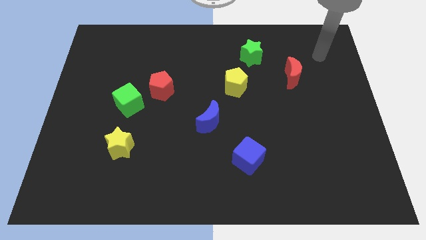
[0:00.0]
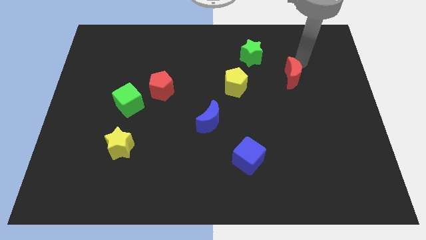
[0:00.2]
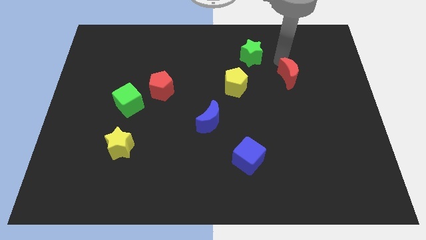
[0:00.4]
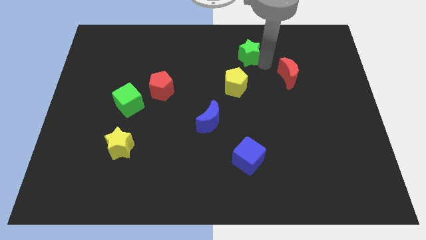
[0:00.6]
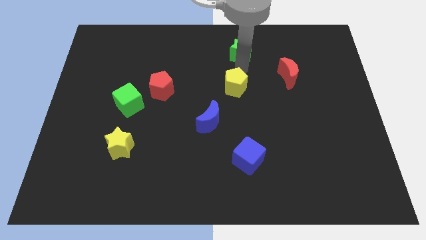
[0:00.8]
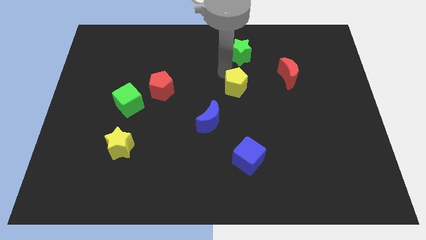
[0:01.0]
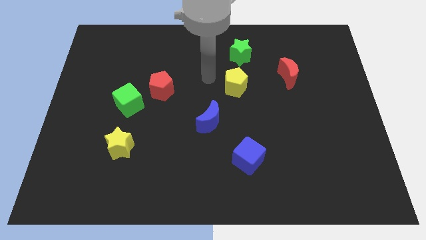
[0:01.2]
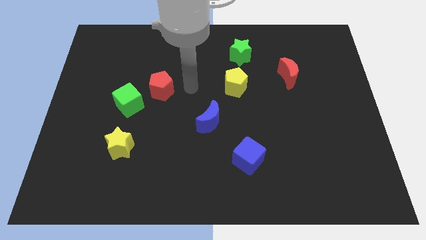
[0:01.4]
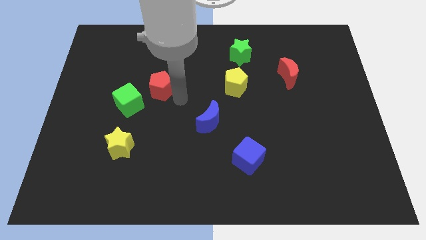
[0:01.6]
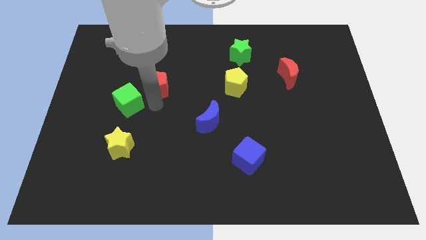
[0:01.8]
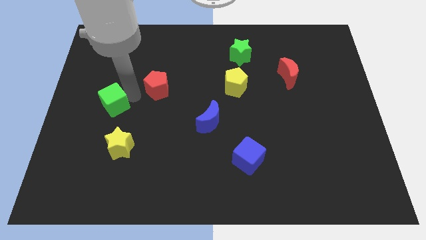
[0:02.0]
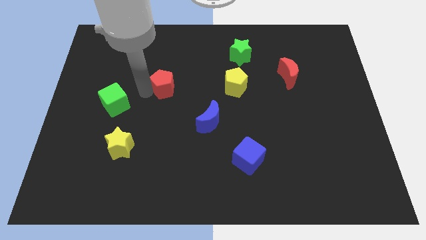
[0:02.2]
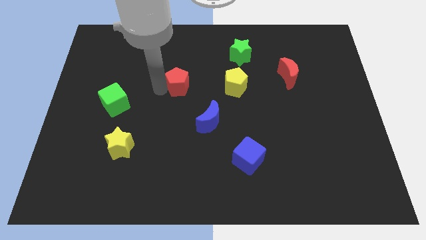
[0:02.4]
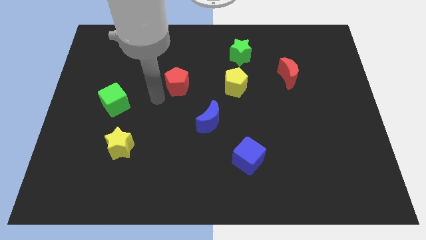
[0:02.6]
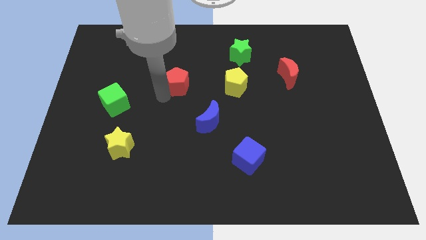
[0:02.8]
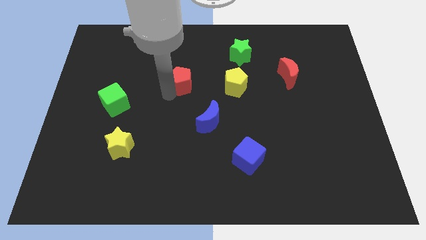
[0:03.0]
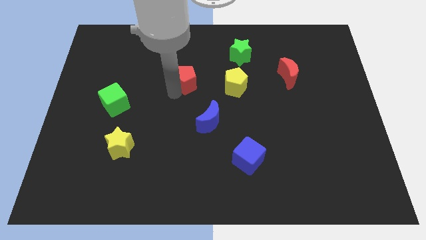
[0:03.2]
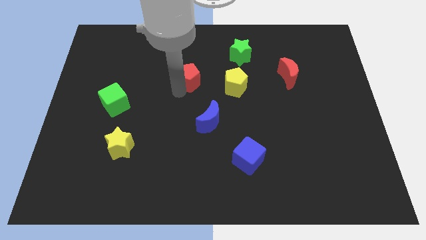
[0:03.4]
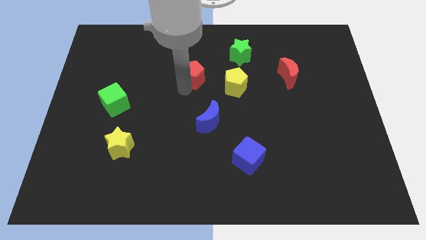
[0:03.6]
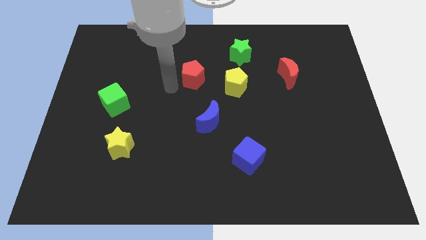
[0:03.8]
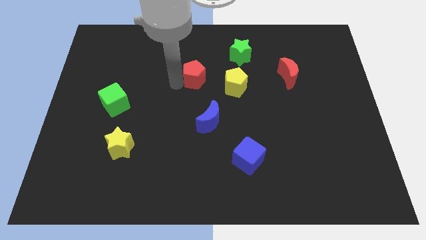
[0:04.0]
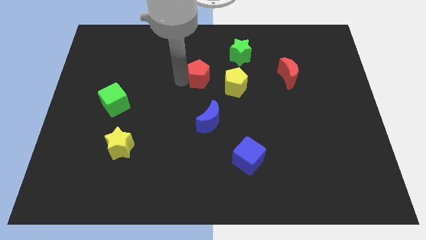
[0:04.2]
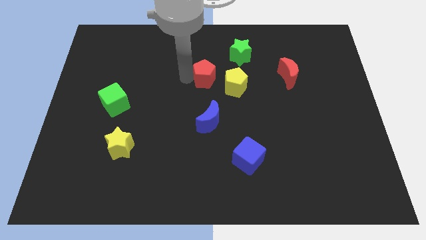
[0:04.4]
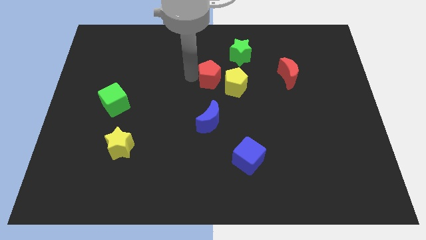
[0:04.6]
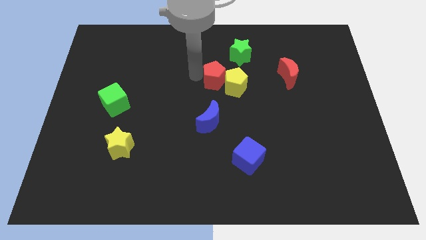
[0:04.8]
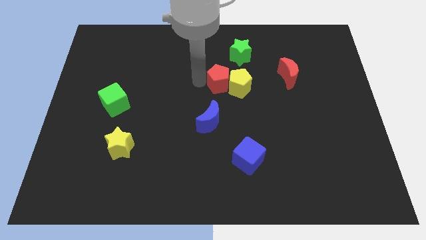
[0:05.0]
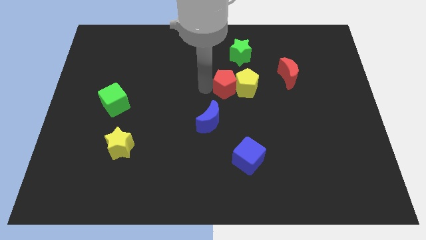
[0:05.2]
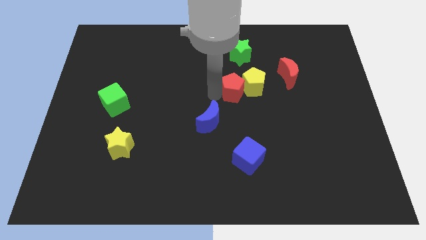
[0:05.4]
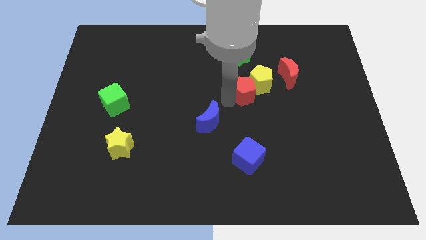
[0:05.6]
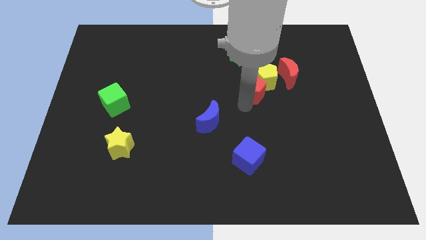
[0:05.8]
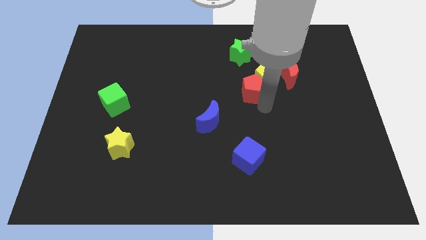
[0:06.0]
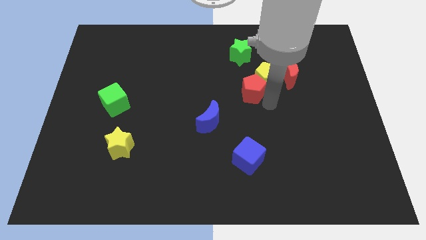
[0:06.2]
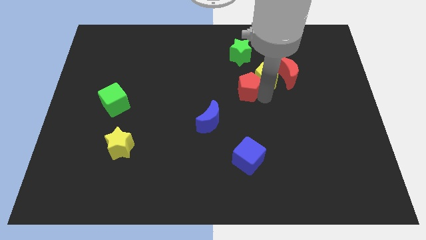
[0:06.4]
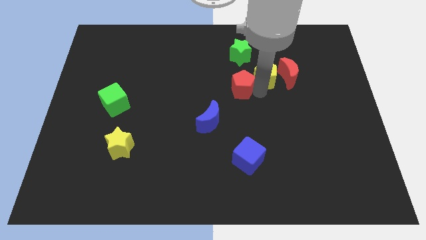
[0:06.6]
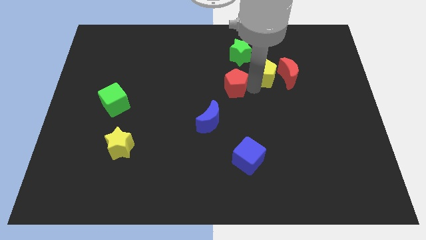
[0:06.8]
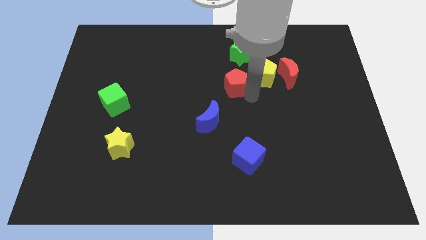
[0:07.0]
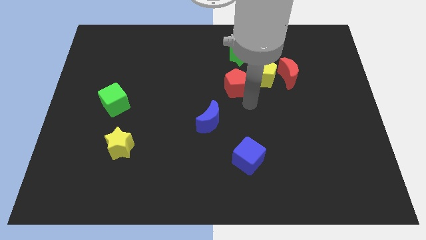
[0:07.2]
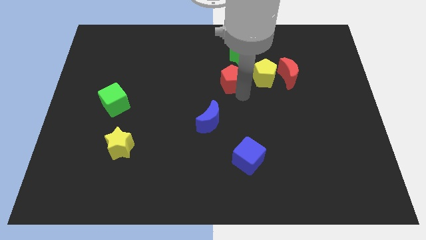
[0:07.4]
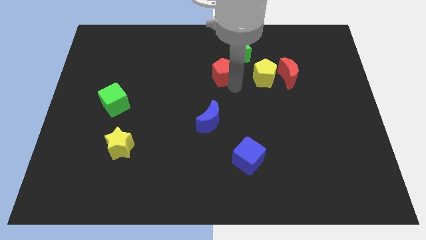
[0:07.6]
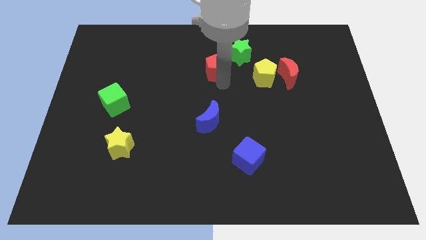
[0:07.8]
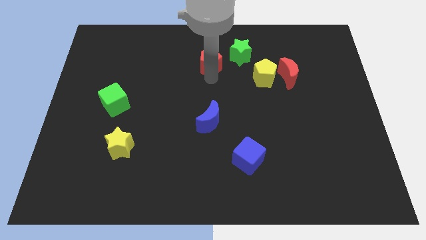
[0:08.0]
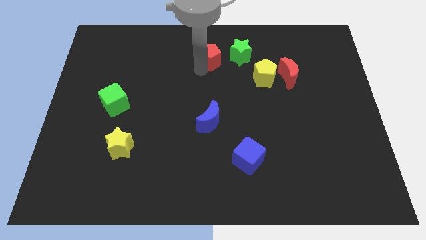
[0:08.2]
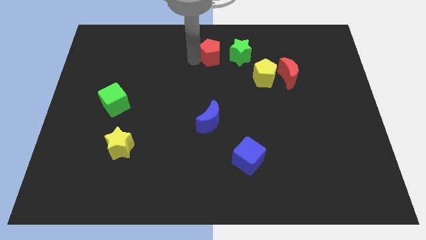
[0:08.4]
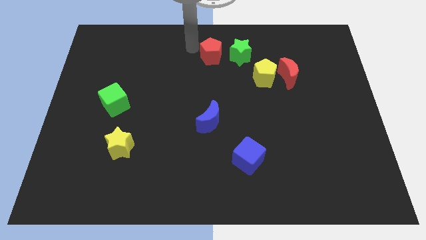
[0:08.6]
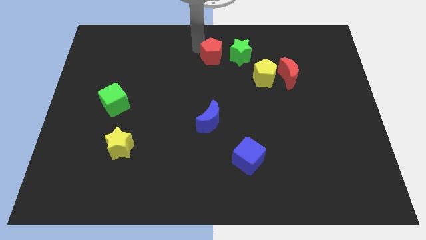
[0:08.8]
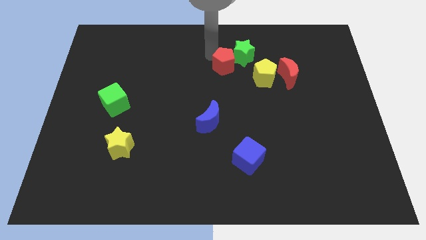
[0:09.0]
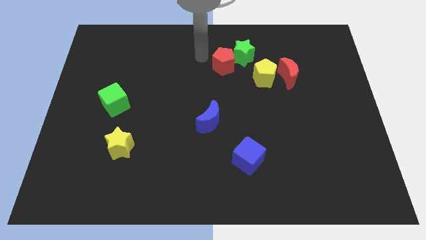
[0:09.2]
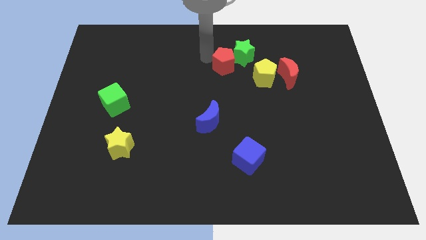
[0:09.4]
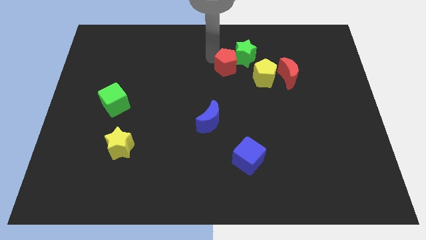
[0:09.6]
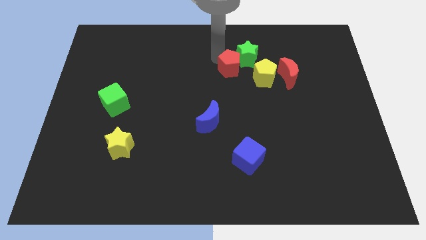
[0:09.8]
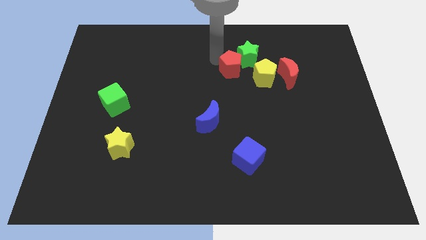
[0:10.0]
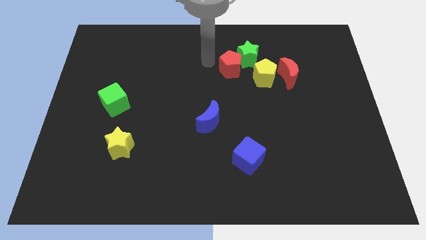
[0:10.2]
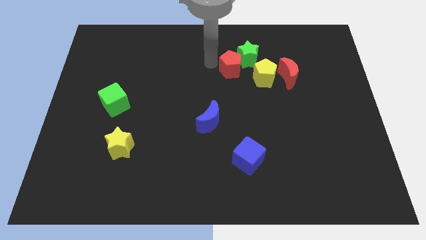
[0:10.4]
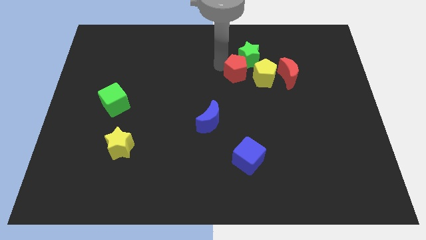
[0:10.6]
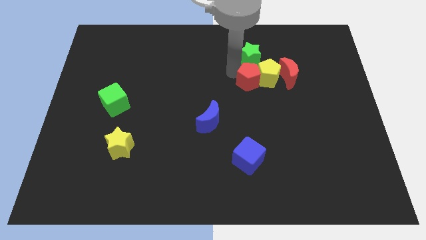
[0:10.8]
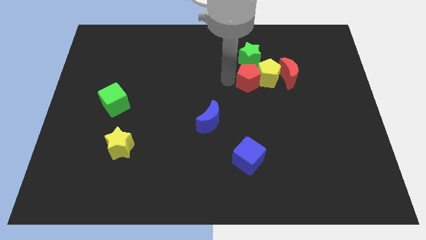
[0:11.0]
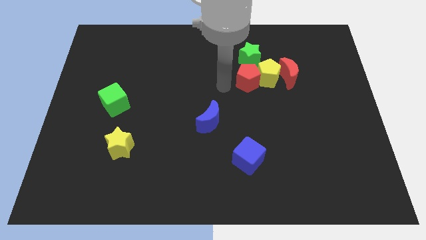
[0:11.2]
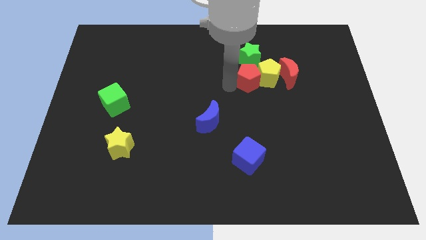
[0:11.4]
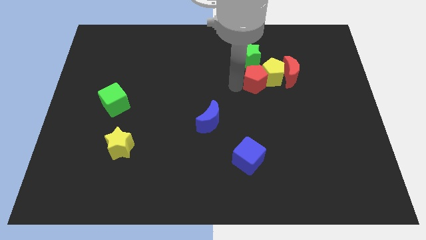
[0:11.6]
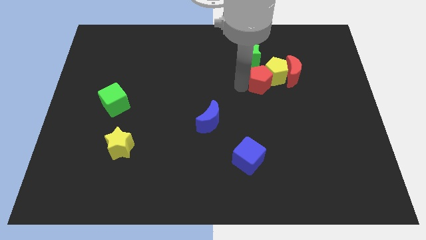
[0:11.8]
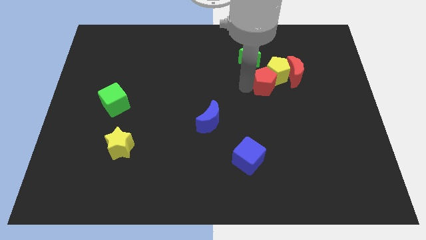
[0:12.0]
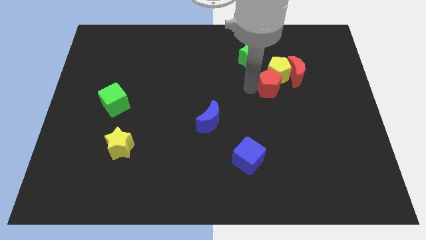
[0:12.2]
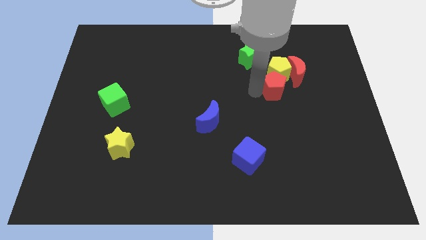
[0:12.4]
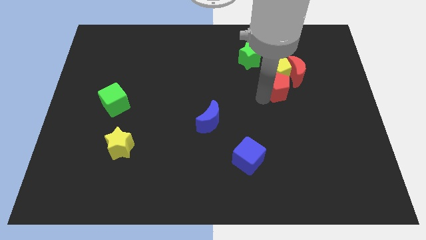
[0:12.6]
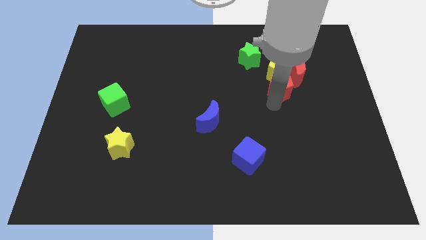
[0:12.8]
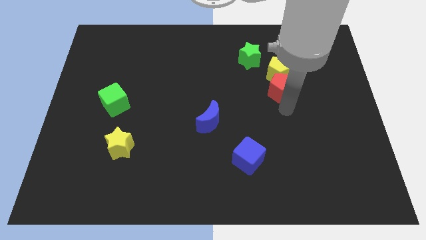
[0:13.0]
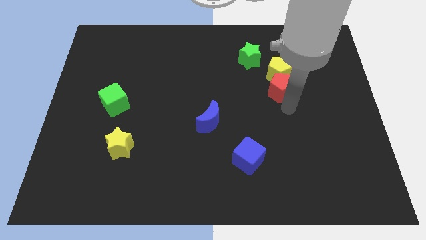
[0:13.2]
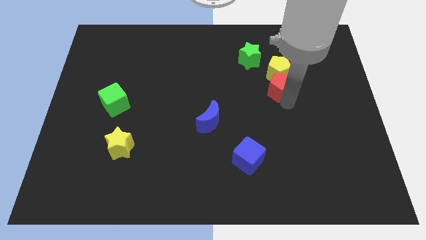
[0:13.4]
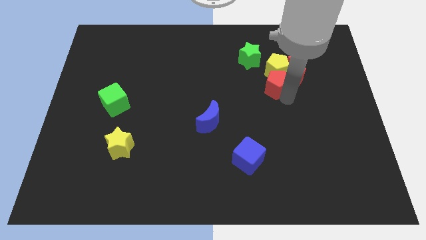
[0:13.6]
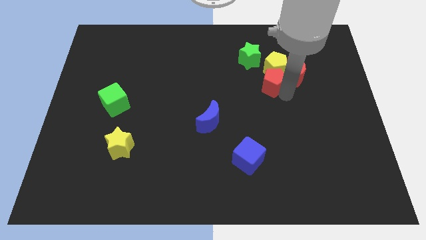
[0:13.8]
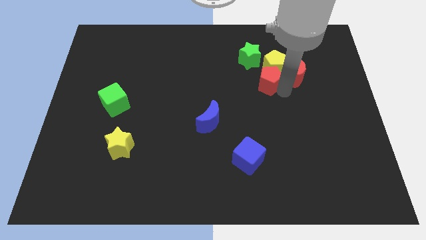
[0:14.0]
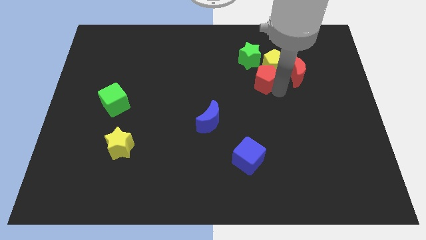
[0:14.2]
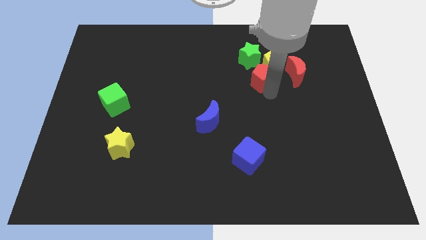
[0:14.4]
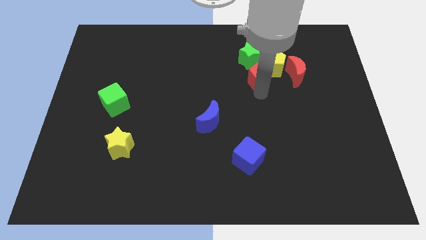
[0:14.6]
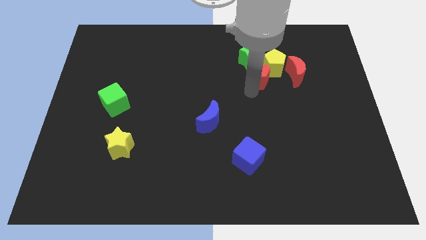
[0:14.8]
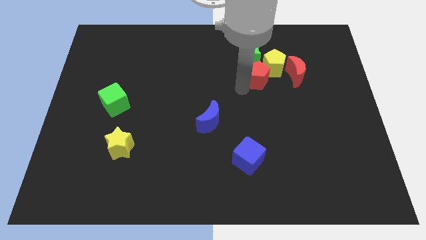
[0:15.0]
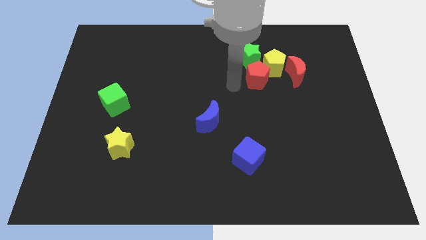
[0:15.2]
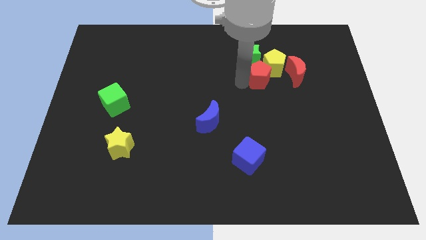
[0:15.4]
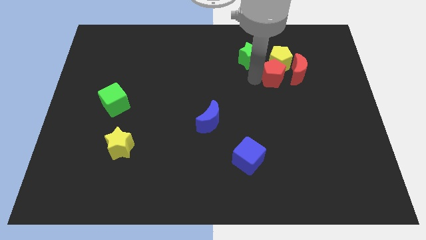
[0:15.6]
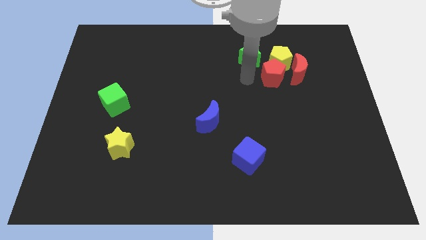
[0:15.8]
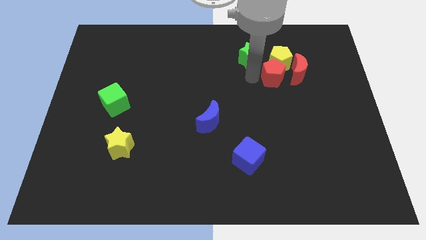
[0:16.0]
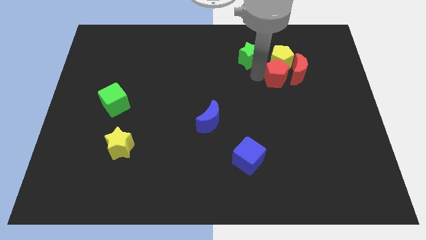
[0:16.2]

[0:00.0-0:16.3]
put the red pentagon towards the red moon
